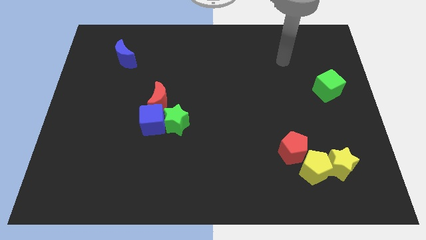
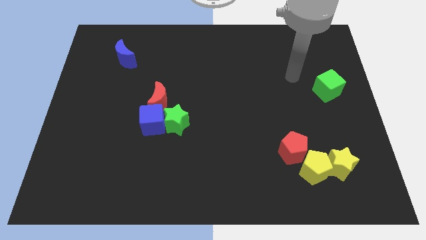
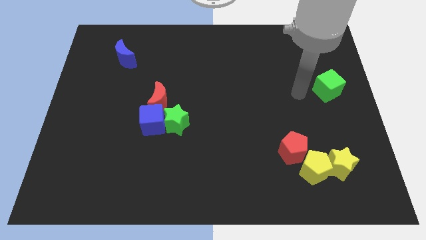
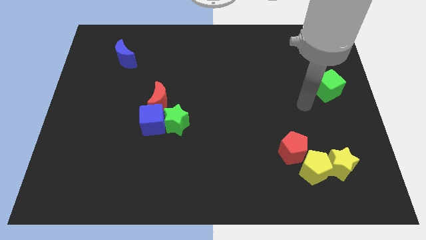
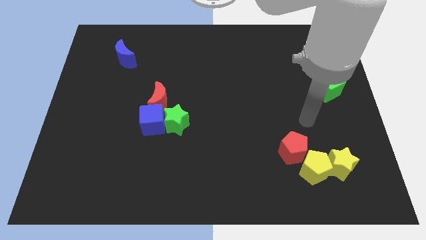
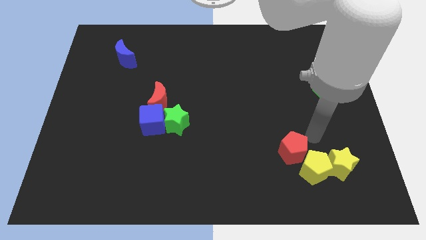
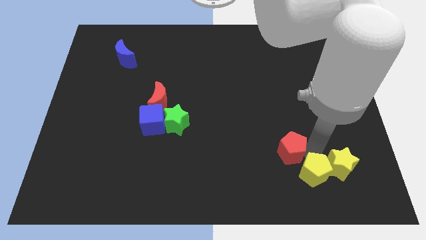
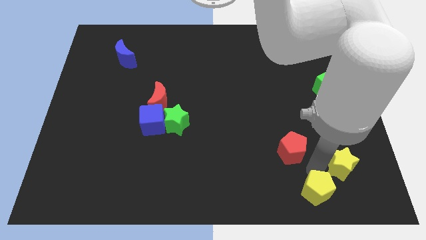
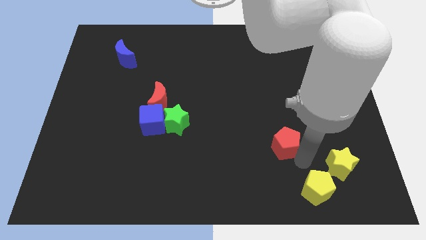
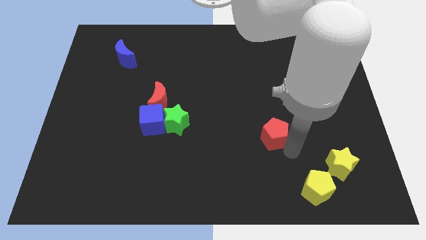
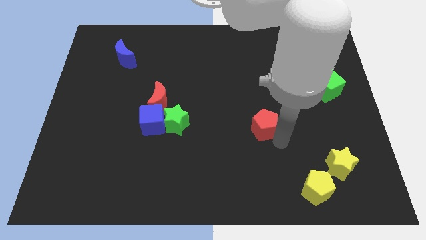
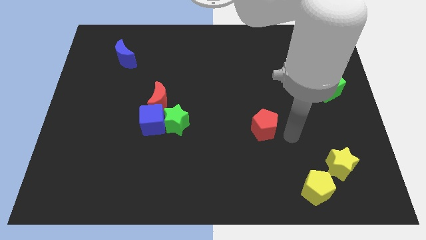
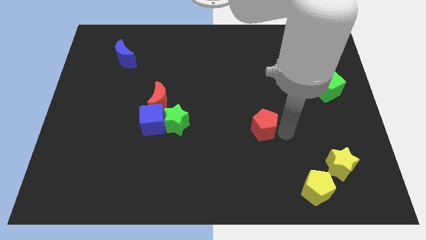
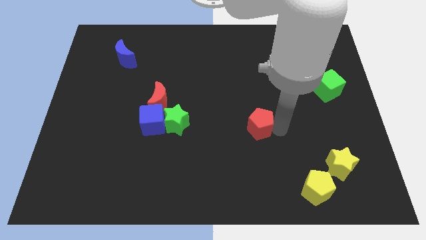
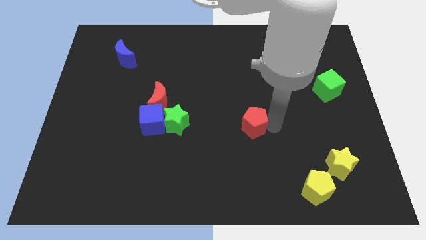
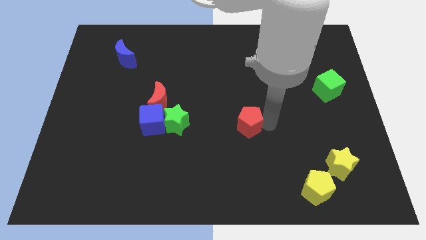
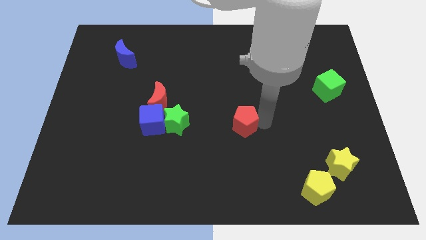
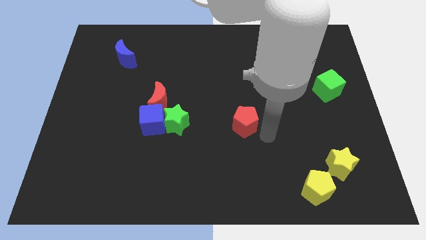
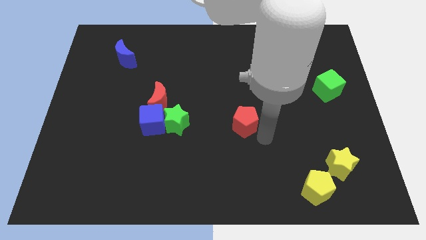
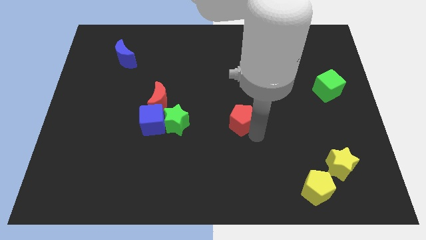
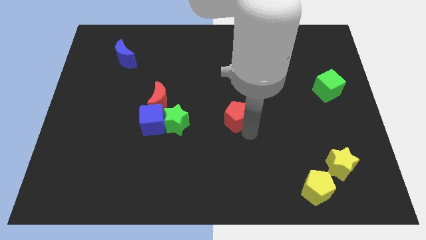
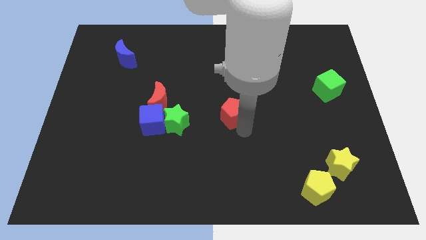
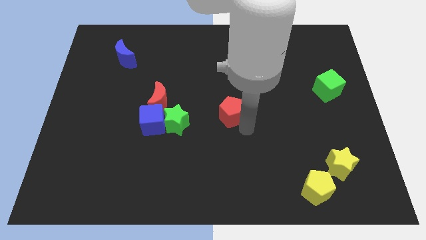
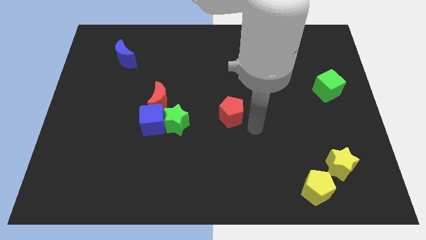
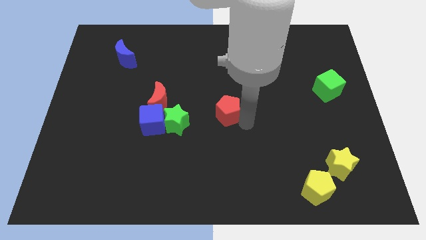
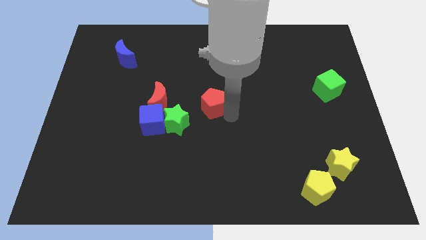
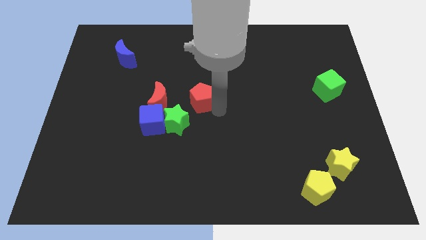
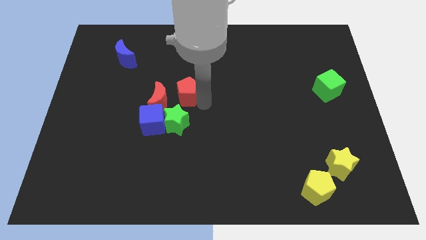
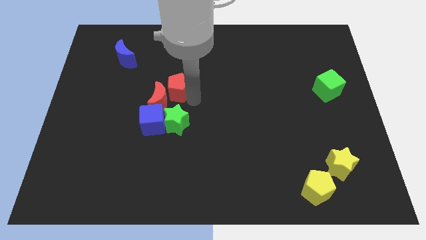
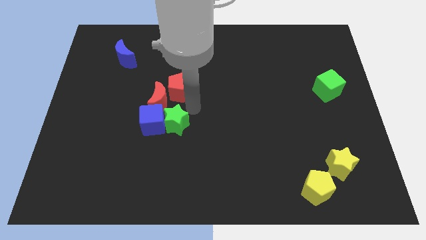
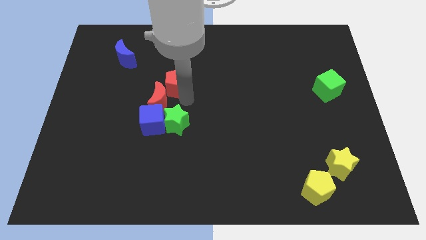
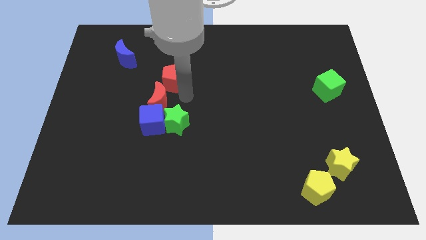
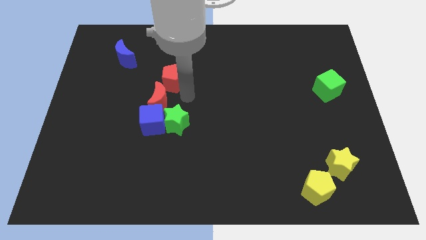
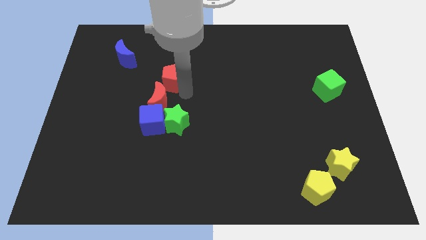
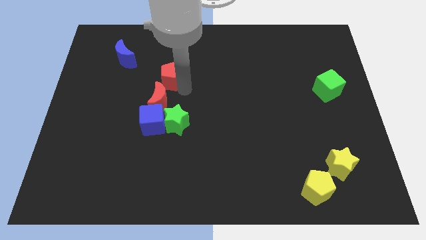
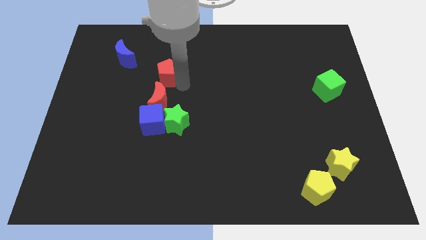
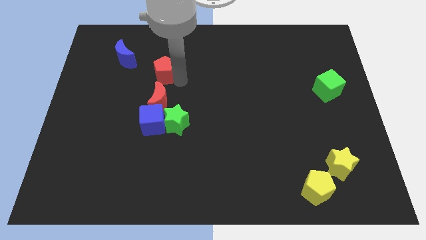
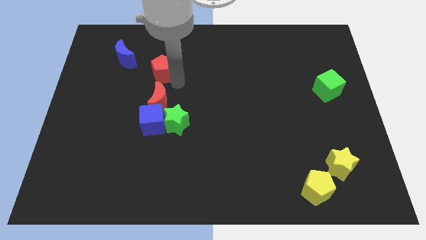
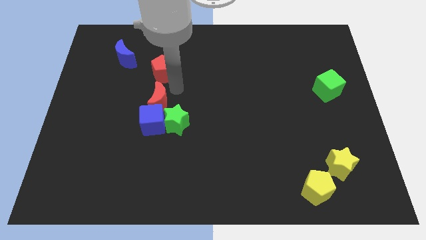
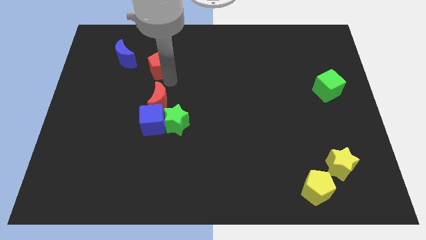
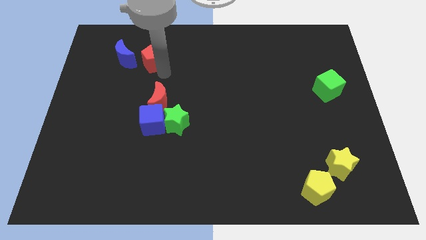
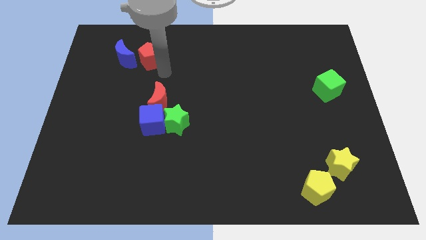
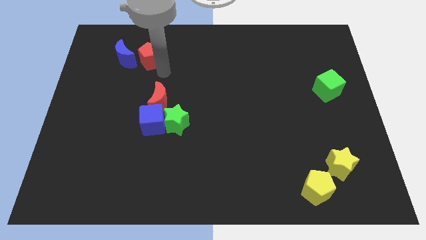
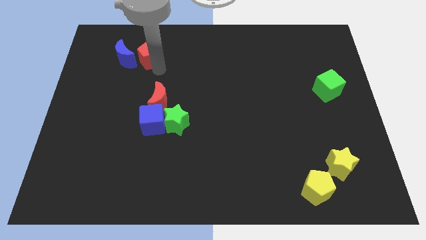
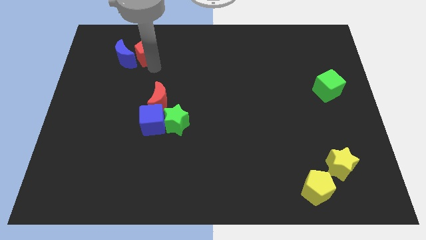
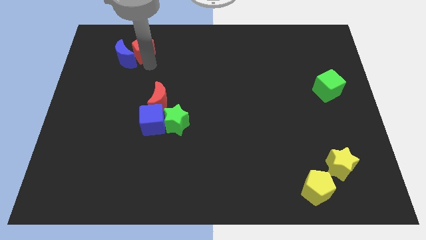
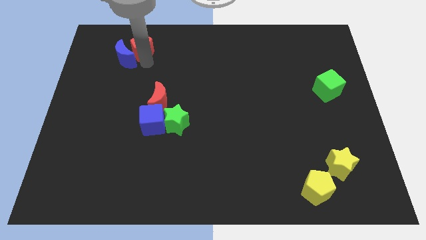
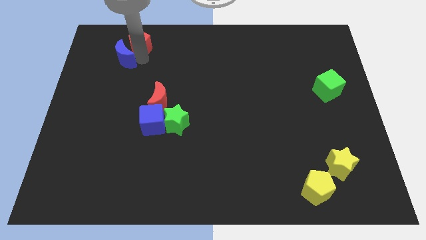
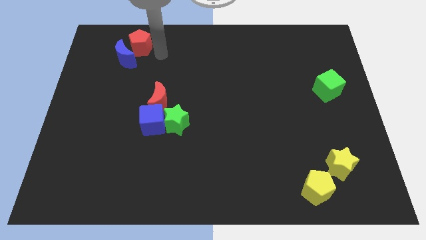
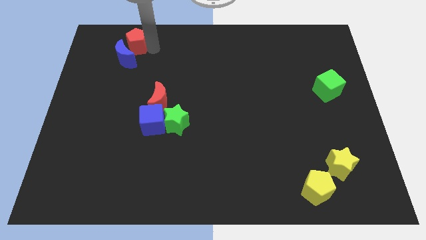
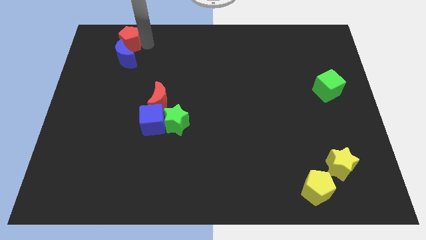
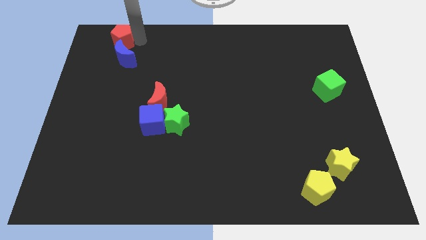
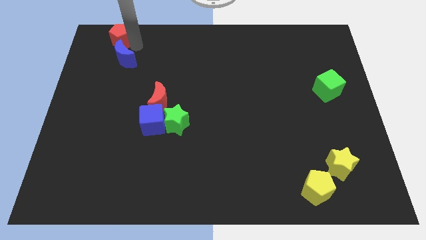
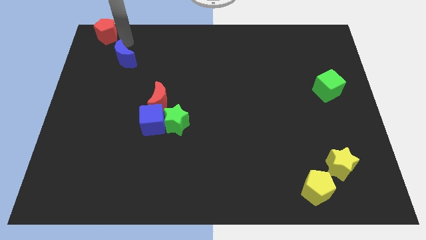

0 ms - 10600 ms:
push the red pentagon to the top left

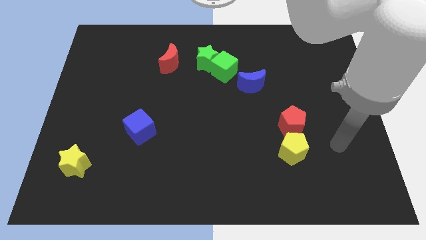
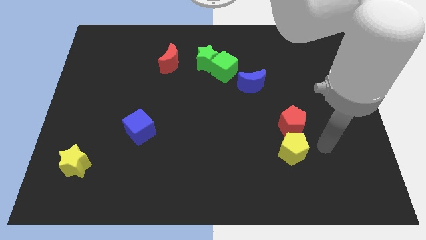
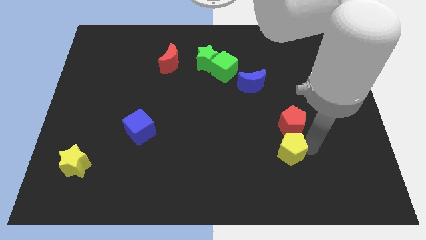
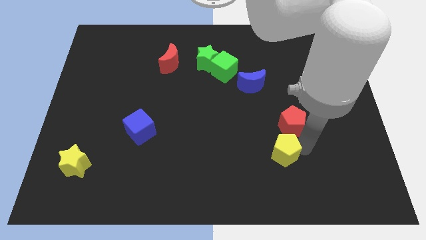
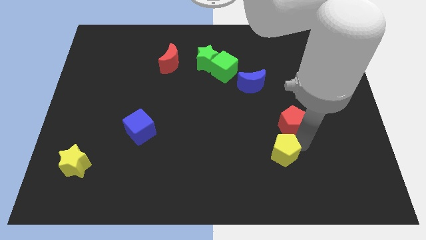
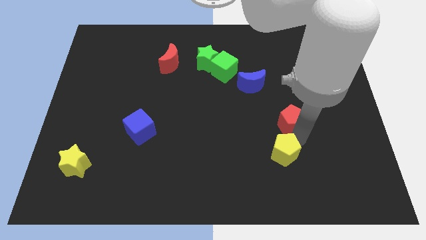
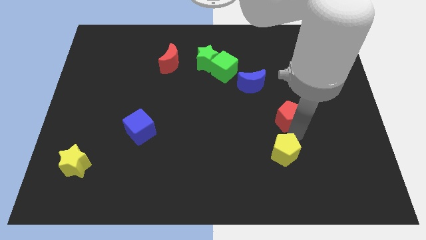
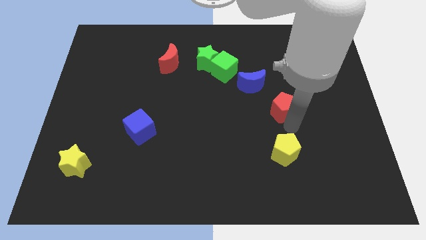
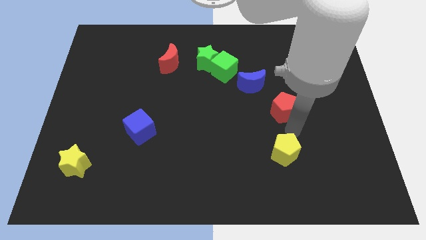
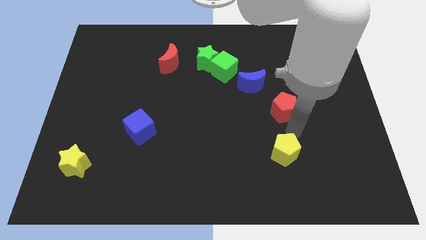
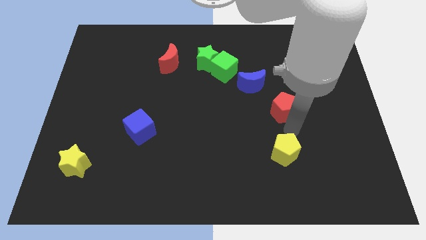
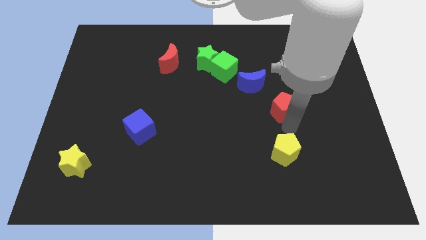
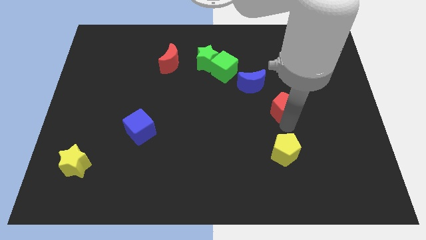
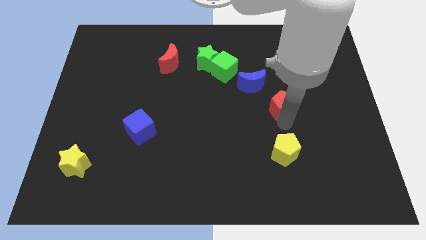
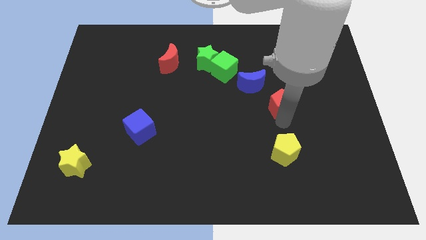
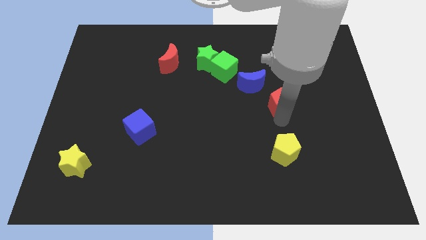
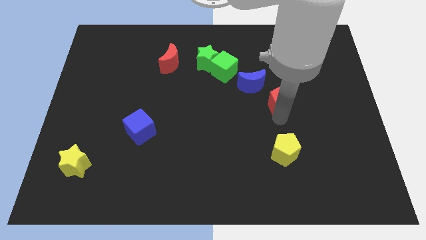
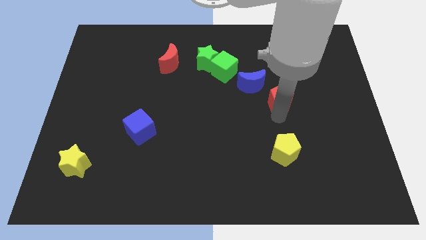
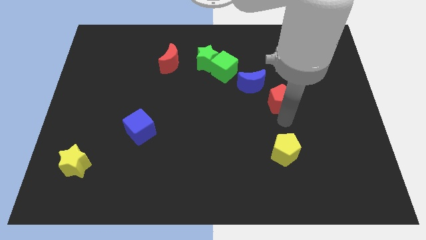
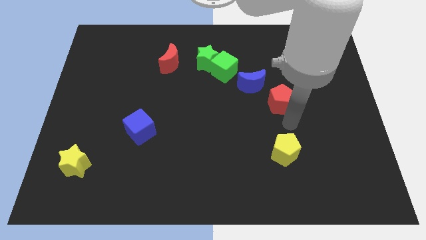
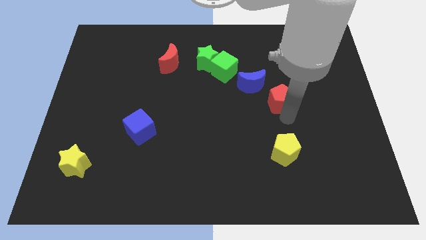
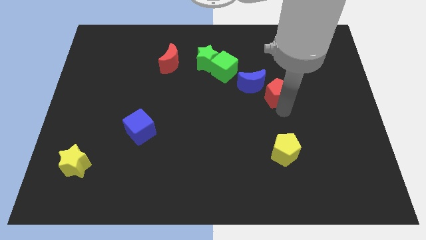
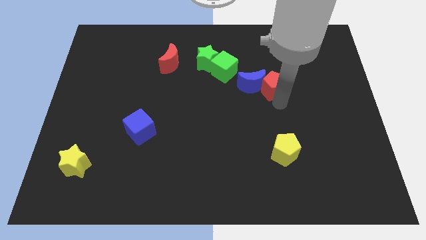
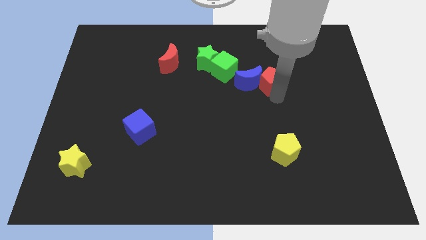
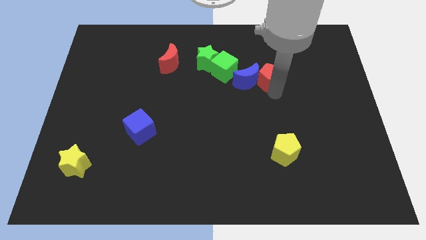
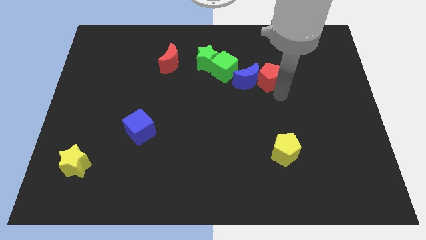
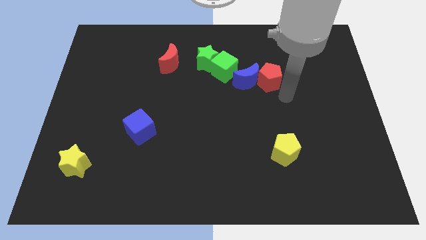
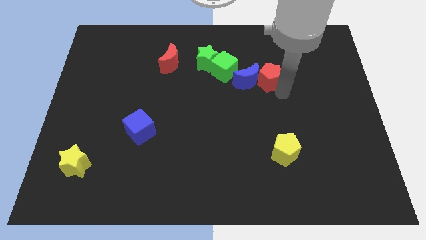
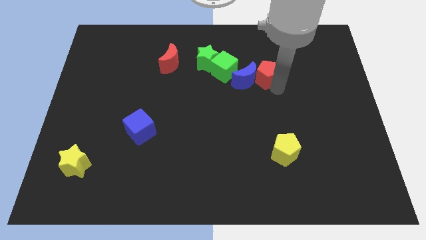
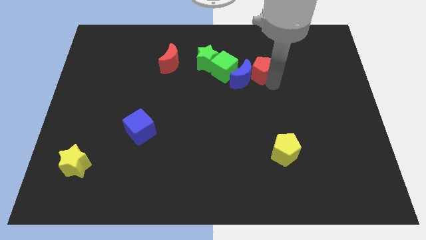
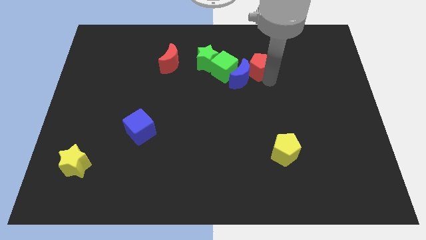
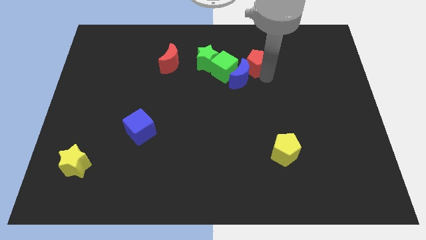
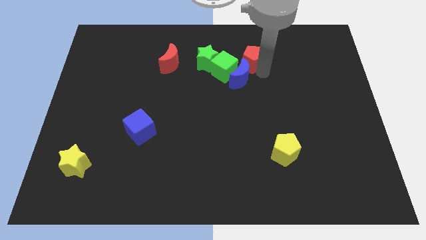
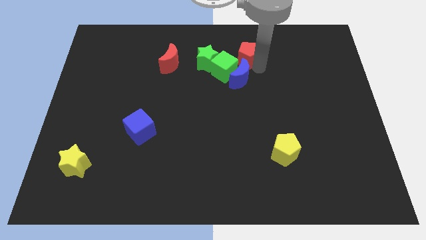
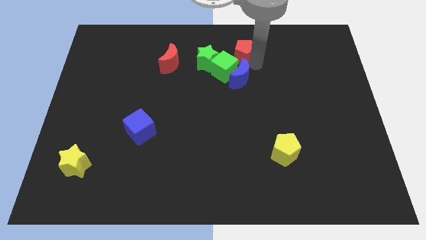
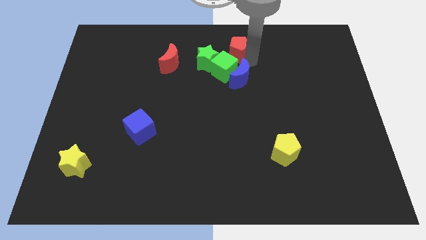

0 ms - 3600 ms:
move the red pentagon to the towards your base
